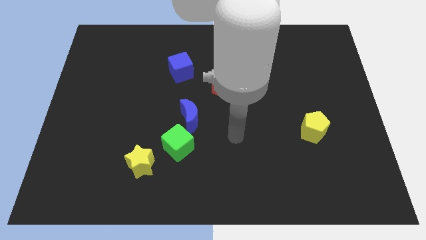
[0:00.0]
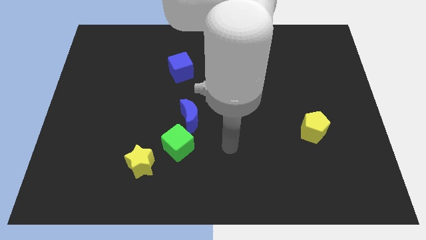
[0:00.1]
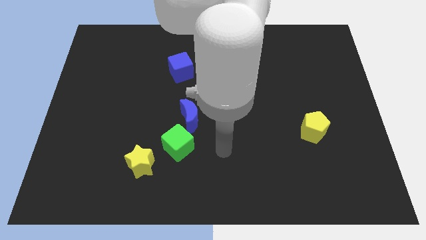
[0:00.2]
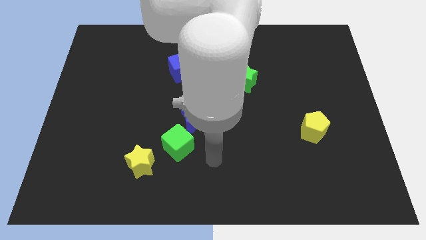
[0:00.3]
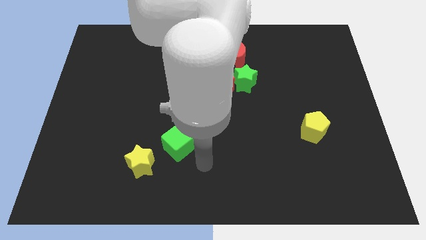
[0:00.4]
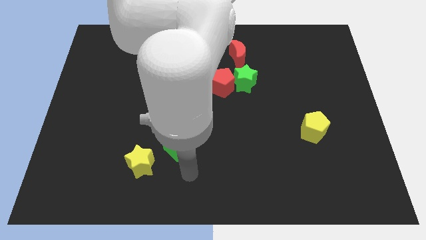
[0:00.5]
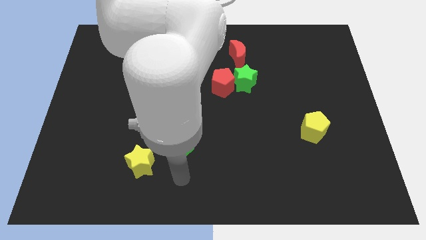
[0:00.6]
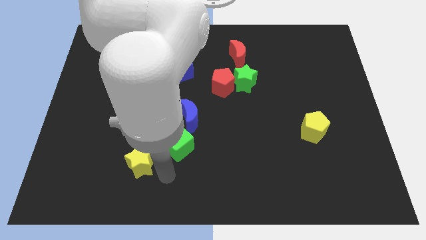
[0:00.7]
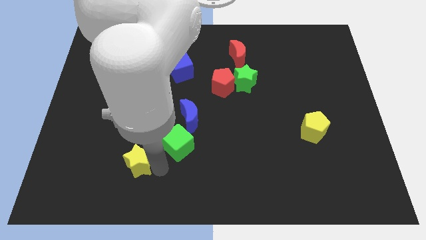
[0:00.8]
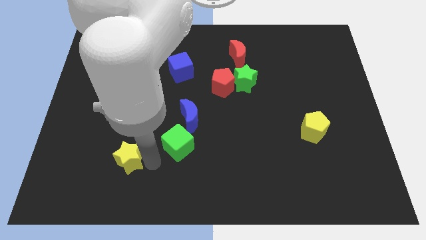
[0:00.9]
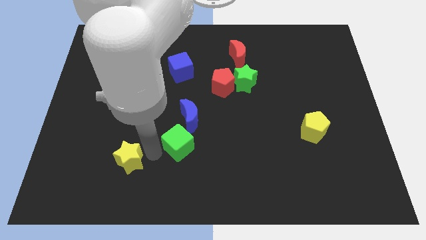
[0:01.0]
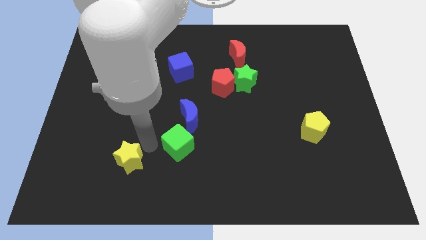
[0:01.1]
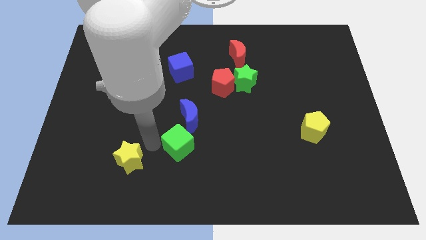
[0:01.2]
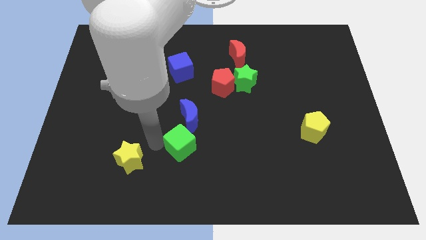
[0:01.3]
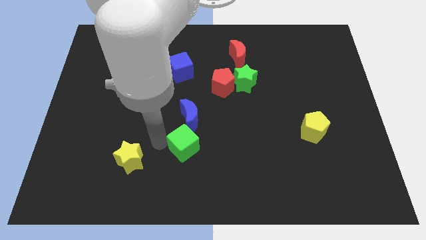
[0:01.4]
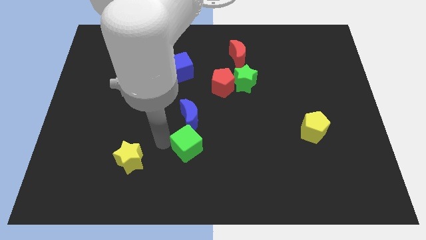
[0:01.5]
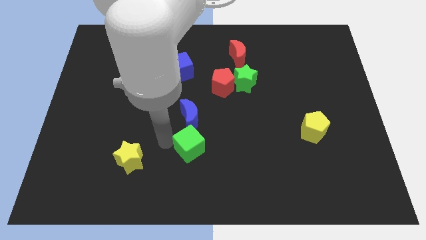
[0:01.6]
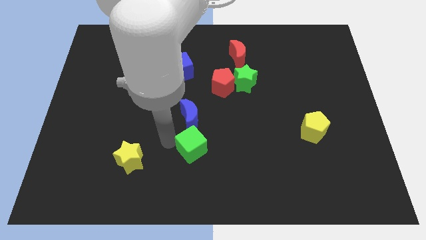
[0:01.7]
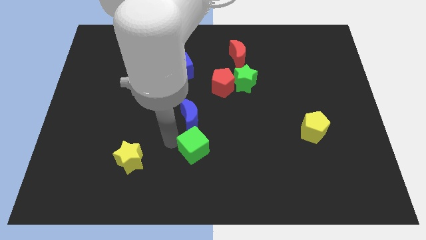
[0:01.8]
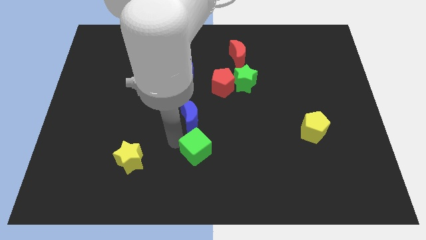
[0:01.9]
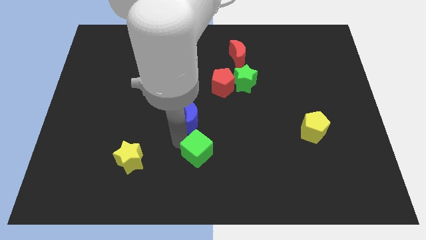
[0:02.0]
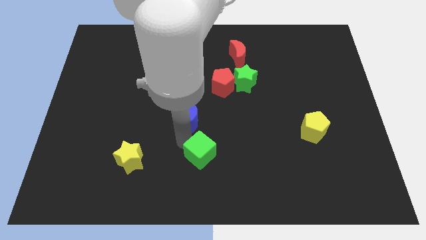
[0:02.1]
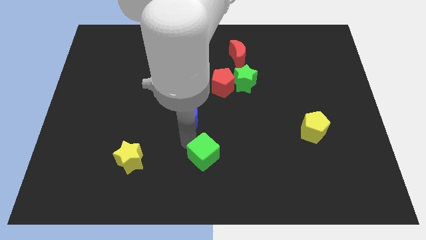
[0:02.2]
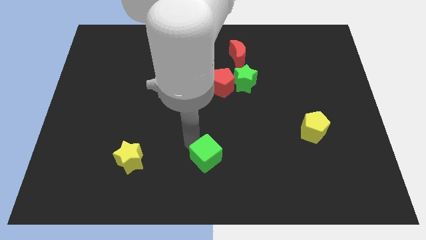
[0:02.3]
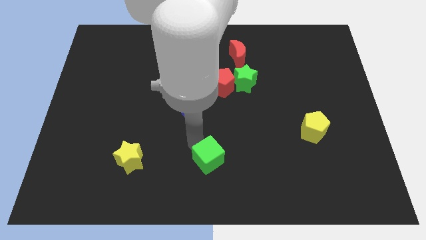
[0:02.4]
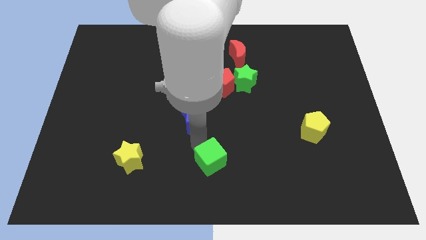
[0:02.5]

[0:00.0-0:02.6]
slide the green cube right a bit

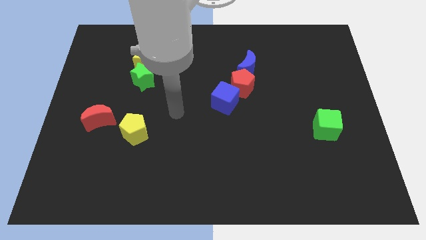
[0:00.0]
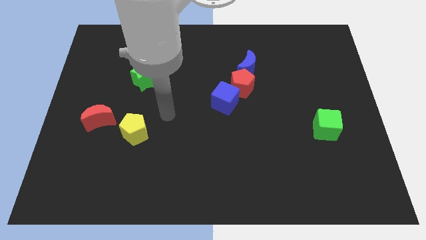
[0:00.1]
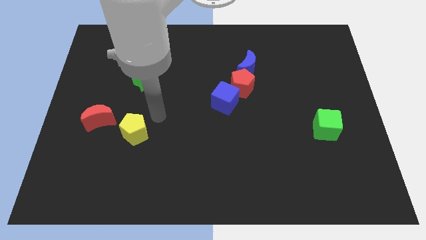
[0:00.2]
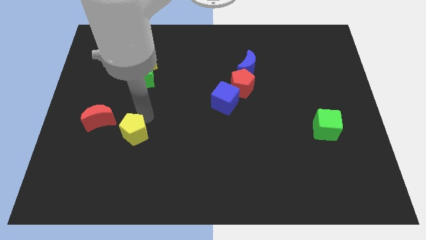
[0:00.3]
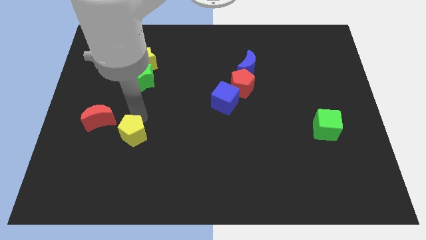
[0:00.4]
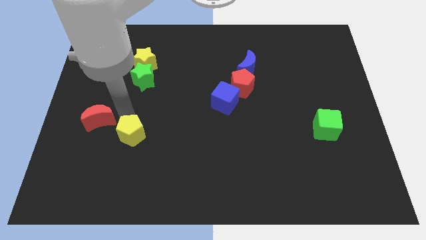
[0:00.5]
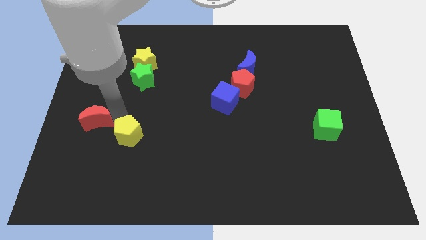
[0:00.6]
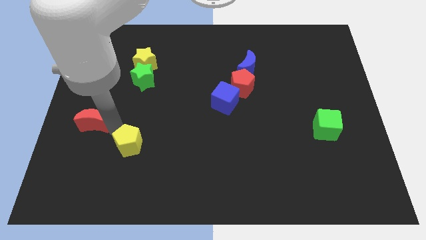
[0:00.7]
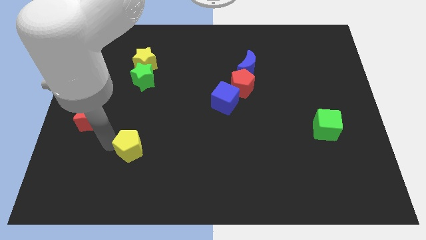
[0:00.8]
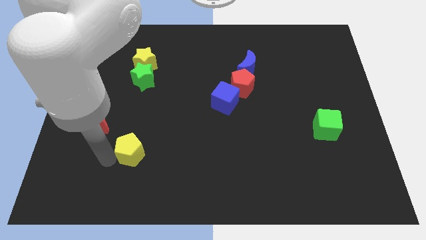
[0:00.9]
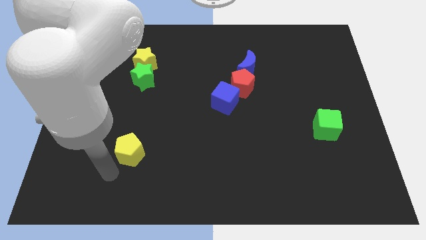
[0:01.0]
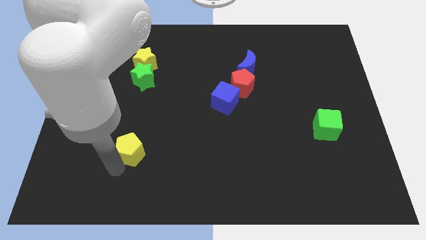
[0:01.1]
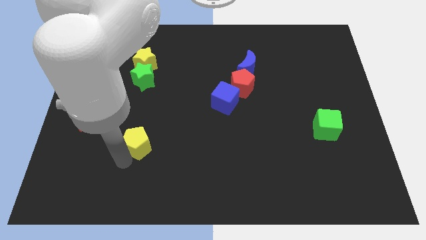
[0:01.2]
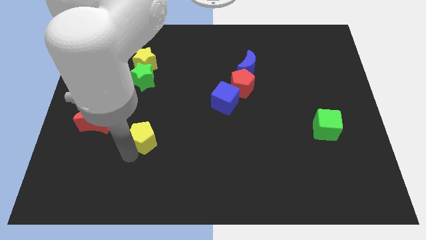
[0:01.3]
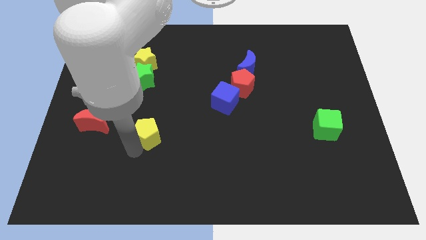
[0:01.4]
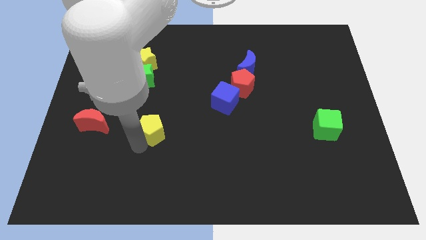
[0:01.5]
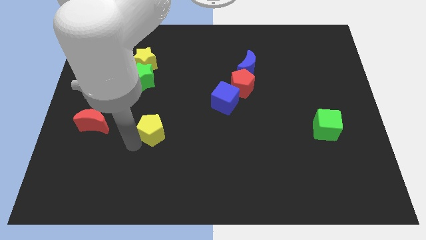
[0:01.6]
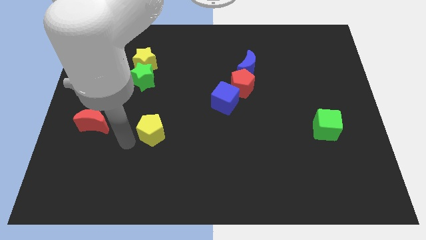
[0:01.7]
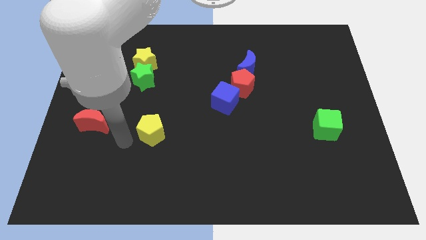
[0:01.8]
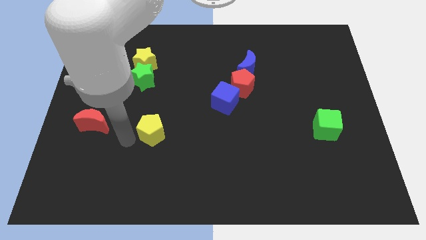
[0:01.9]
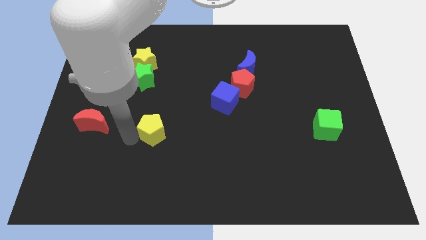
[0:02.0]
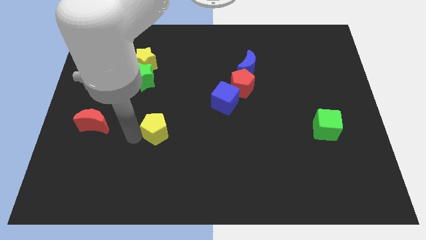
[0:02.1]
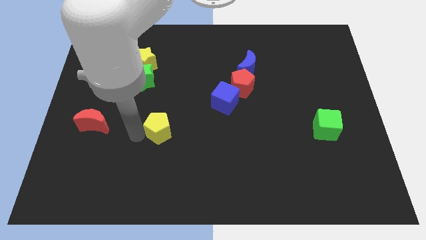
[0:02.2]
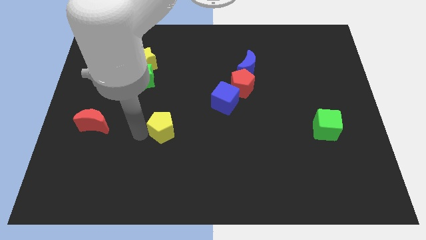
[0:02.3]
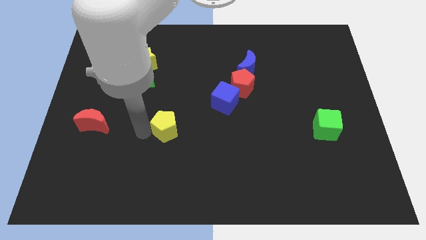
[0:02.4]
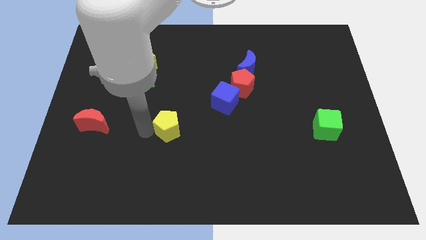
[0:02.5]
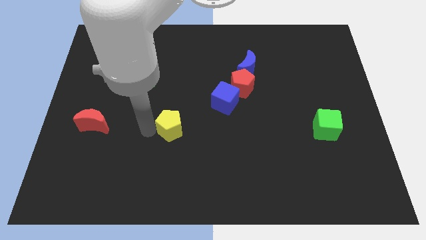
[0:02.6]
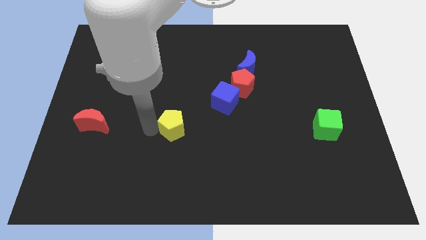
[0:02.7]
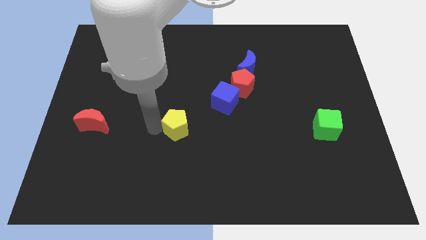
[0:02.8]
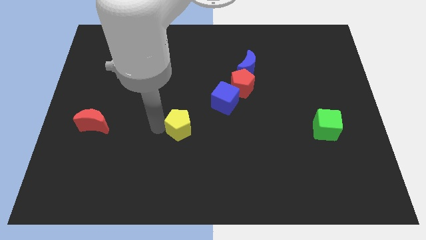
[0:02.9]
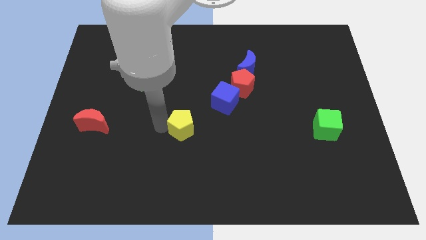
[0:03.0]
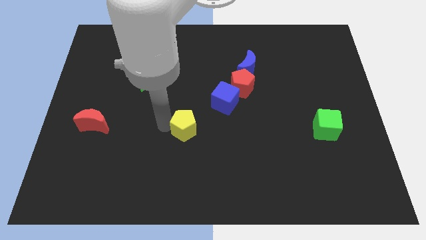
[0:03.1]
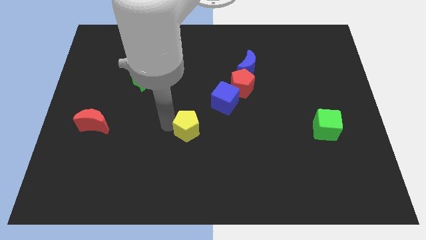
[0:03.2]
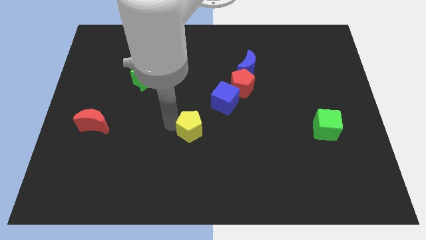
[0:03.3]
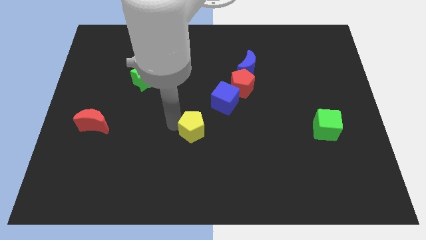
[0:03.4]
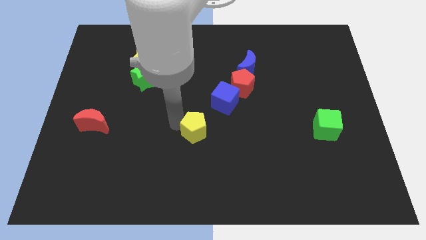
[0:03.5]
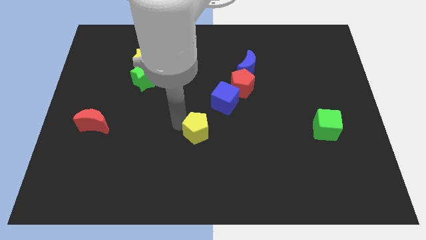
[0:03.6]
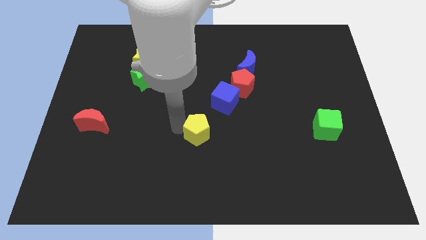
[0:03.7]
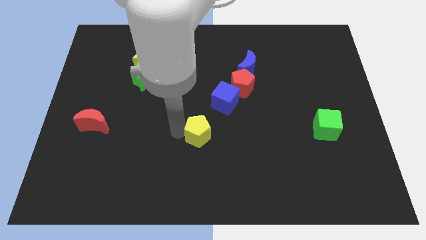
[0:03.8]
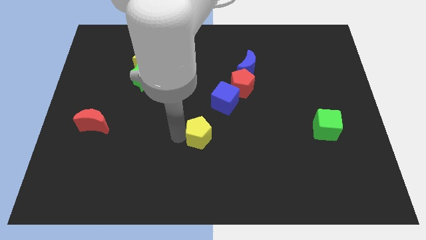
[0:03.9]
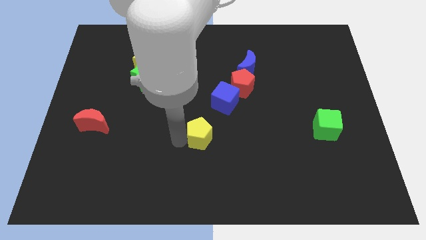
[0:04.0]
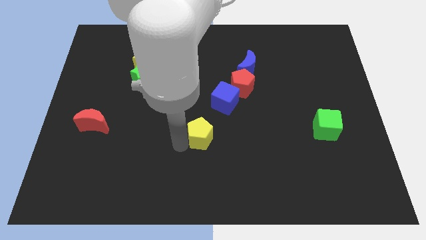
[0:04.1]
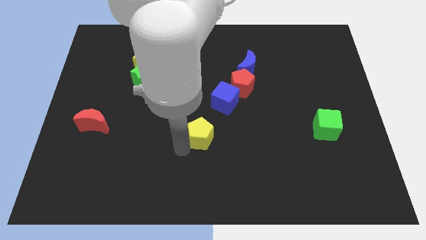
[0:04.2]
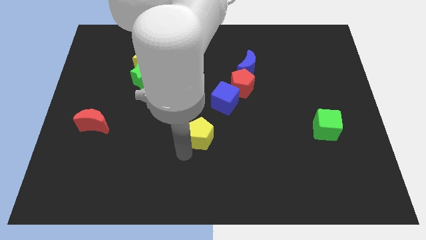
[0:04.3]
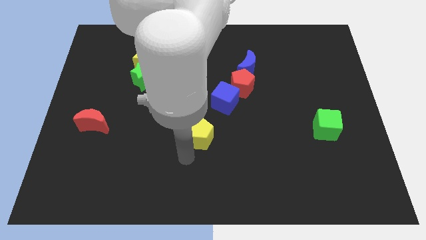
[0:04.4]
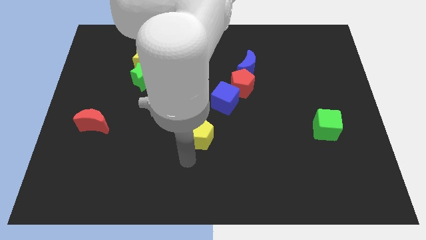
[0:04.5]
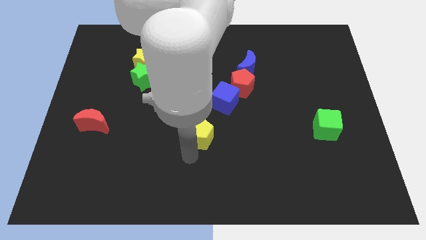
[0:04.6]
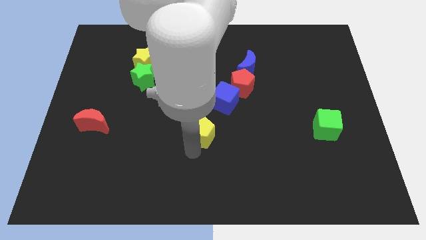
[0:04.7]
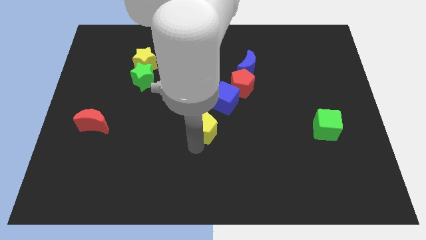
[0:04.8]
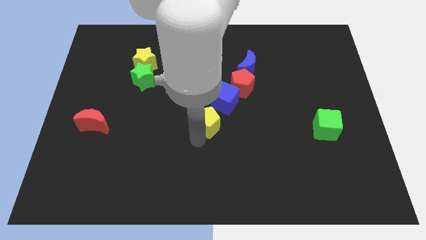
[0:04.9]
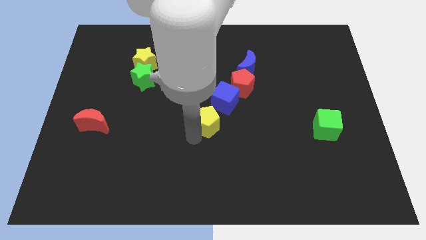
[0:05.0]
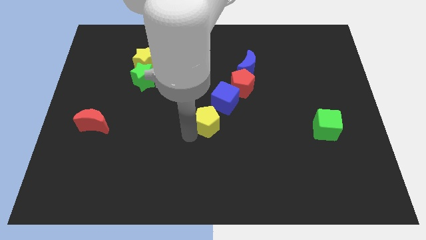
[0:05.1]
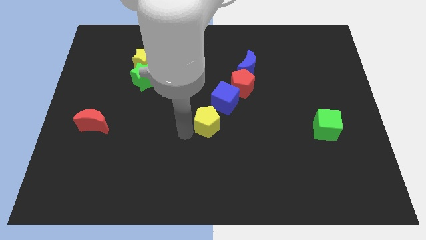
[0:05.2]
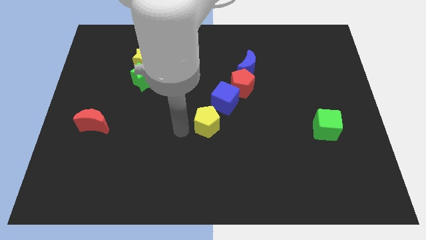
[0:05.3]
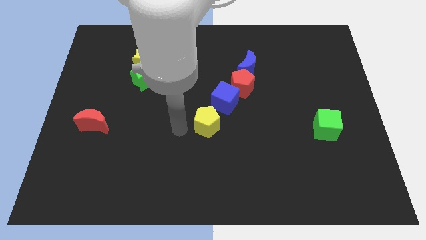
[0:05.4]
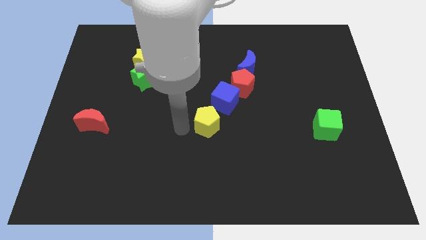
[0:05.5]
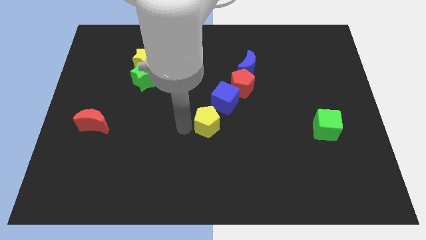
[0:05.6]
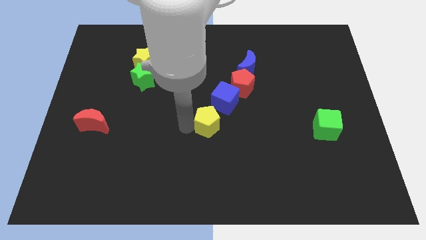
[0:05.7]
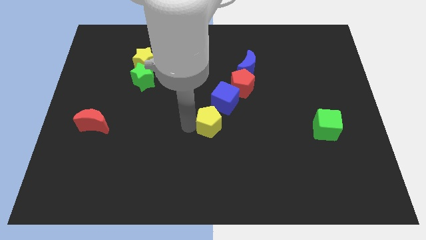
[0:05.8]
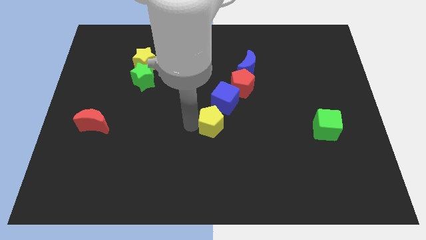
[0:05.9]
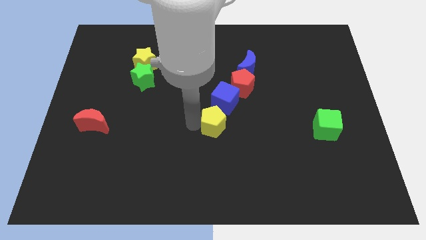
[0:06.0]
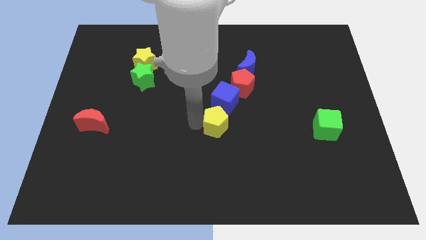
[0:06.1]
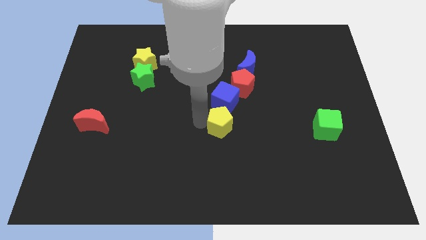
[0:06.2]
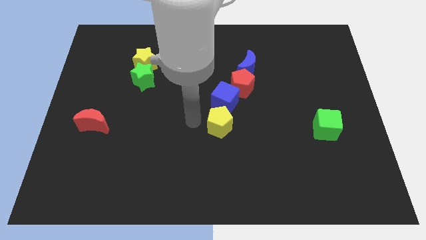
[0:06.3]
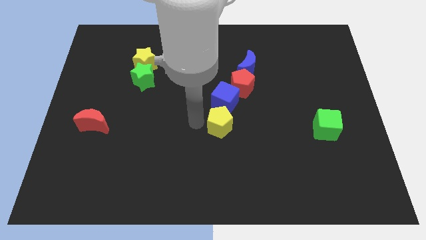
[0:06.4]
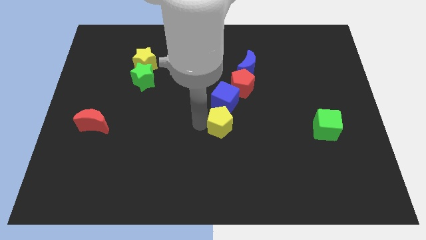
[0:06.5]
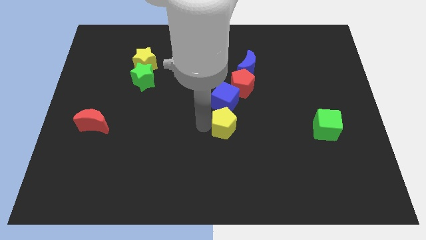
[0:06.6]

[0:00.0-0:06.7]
slide the yellow pentagon to the right
